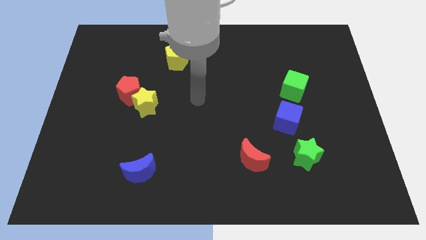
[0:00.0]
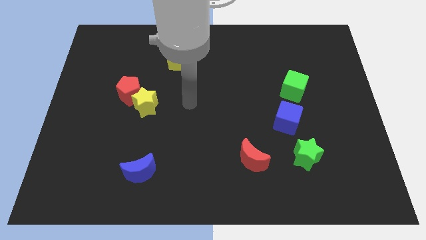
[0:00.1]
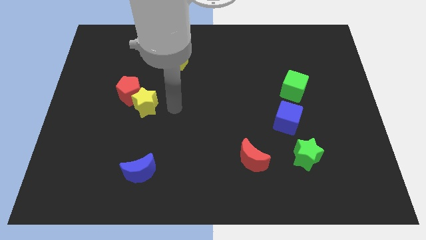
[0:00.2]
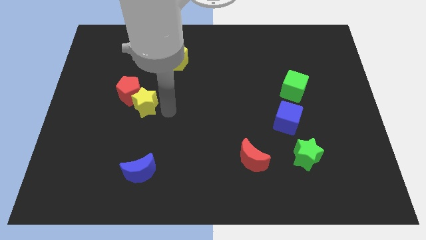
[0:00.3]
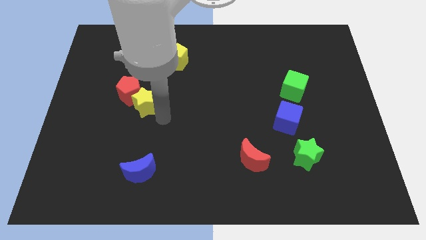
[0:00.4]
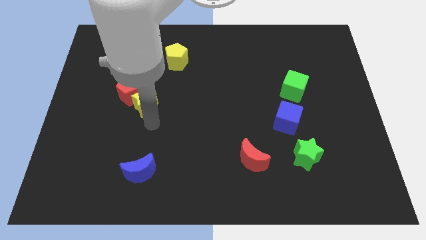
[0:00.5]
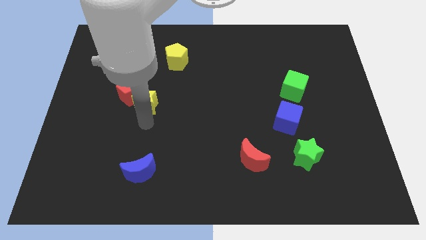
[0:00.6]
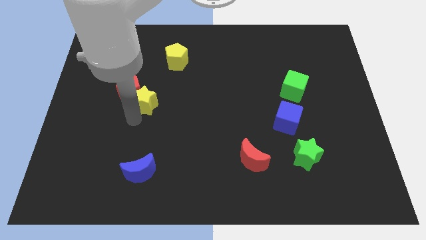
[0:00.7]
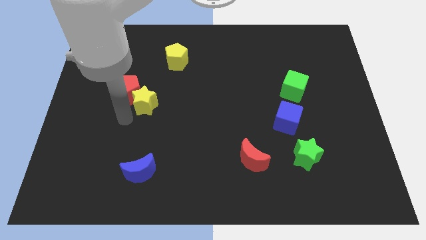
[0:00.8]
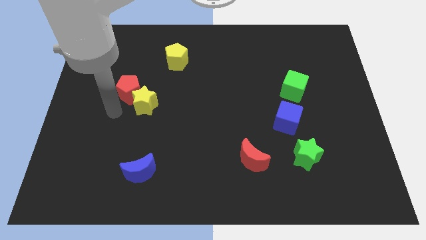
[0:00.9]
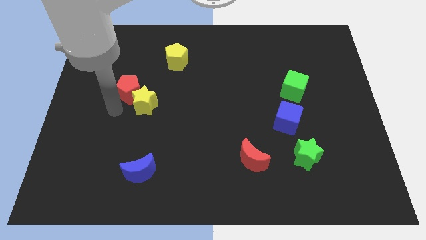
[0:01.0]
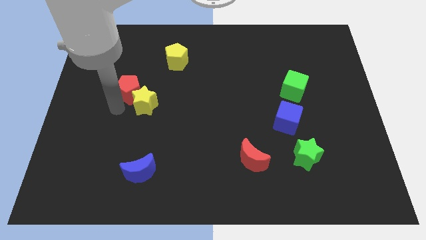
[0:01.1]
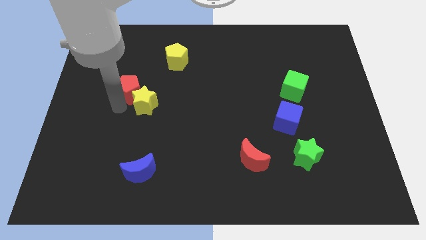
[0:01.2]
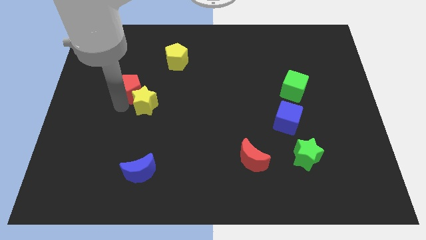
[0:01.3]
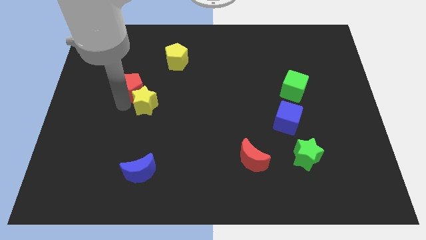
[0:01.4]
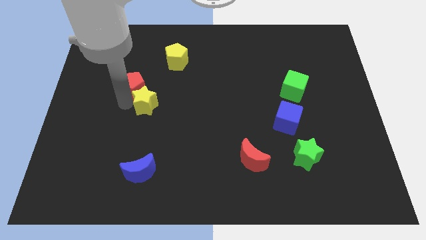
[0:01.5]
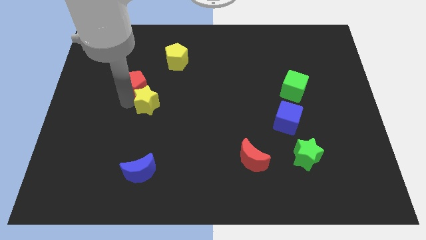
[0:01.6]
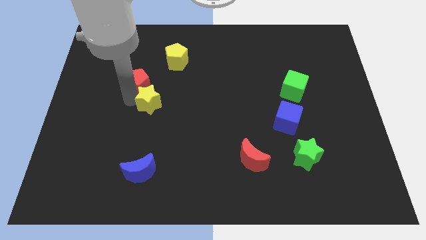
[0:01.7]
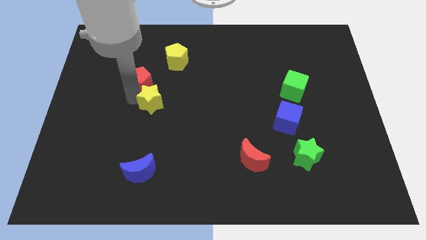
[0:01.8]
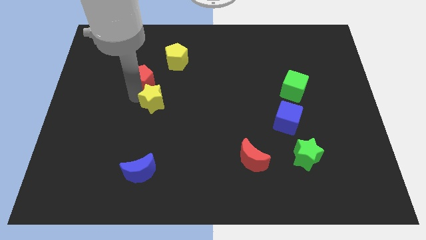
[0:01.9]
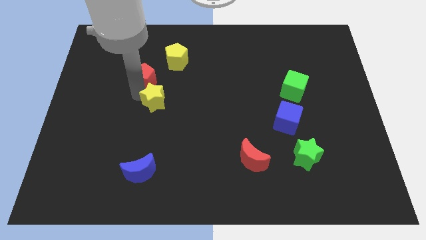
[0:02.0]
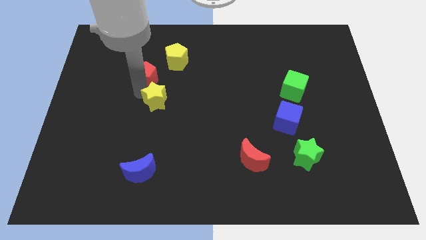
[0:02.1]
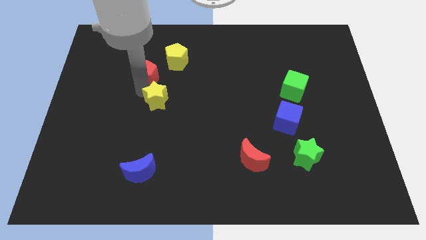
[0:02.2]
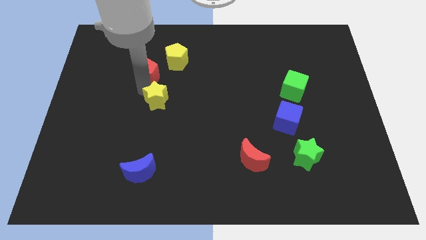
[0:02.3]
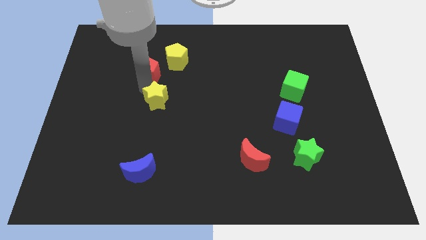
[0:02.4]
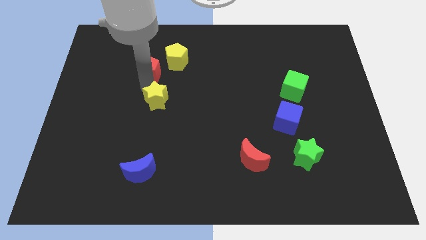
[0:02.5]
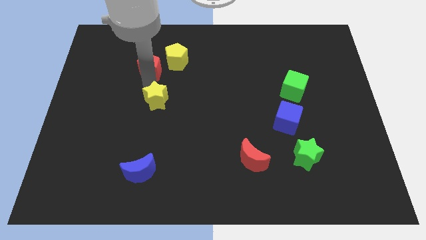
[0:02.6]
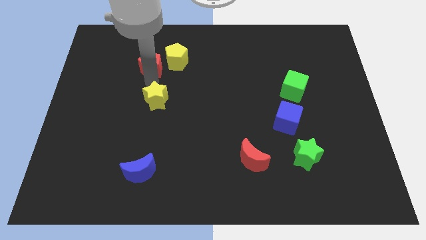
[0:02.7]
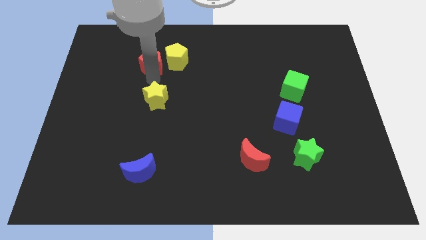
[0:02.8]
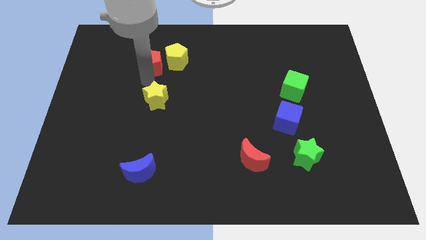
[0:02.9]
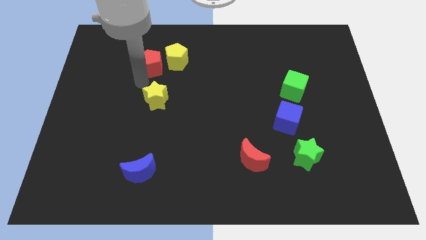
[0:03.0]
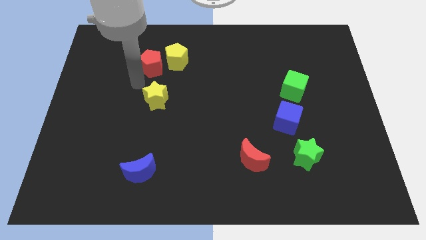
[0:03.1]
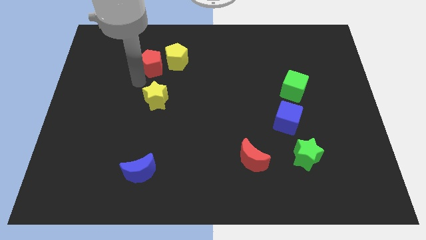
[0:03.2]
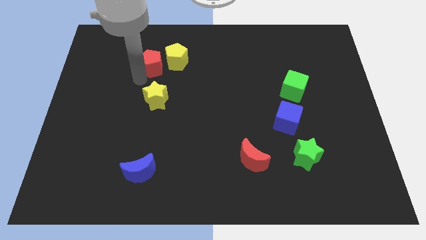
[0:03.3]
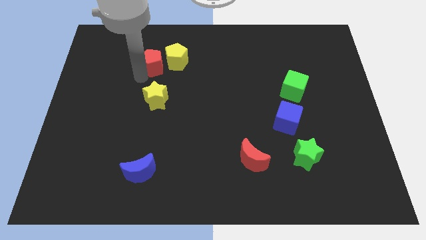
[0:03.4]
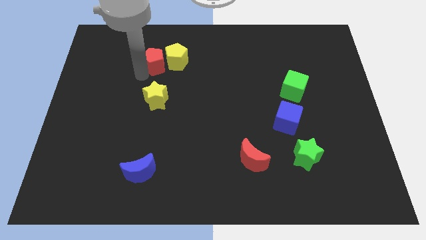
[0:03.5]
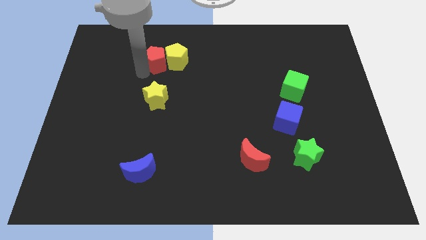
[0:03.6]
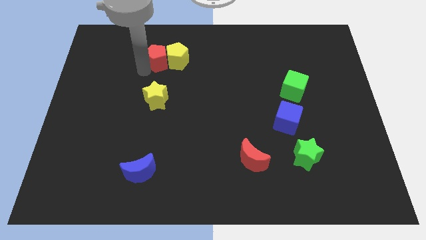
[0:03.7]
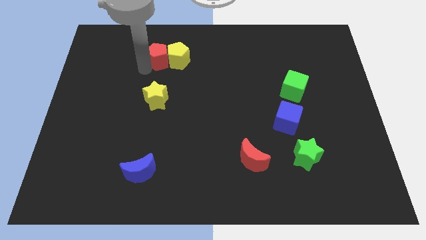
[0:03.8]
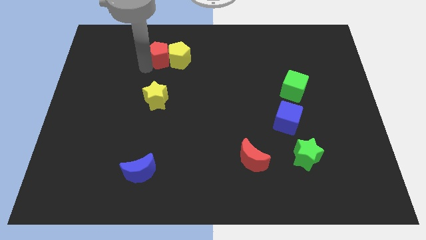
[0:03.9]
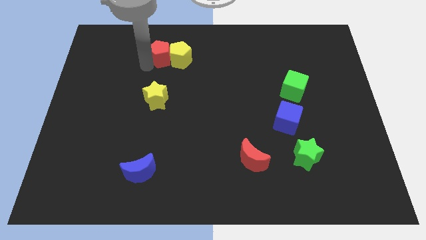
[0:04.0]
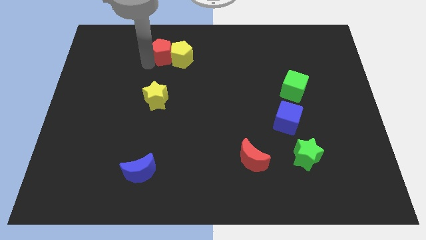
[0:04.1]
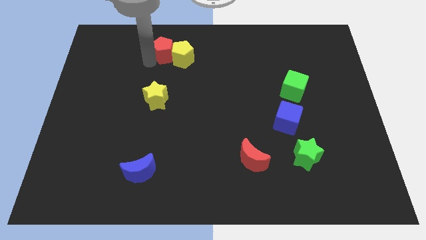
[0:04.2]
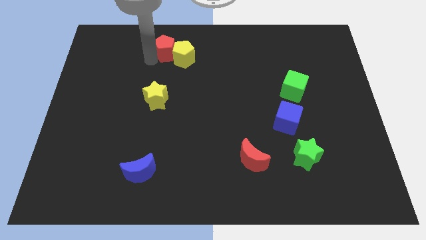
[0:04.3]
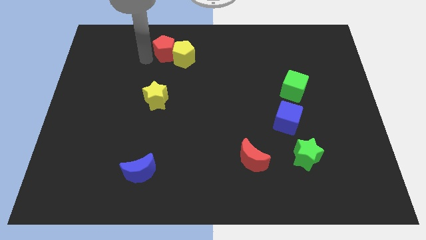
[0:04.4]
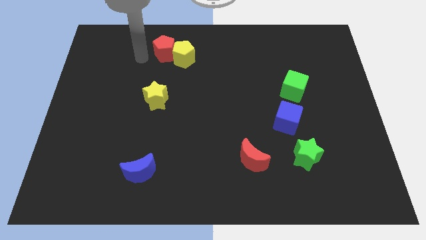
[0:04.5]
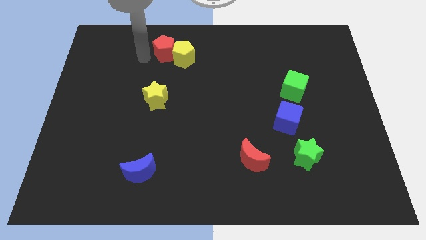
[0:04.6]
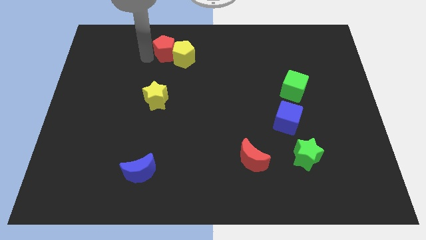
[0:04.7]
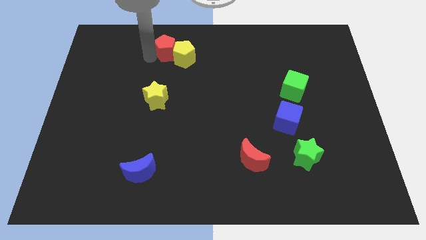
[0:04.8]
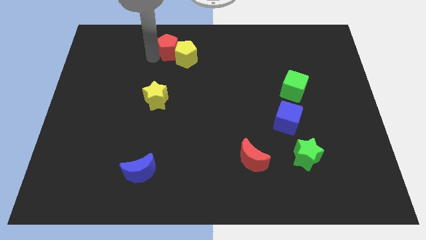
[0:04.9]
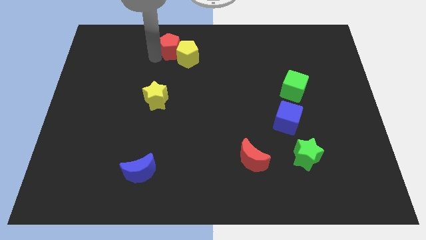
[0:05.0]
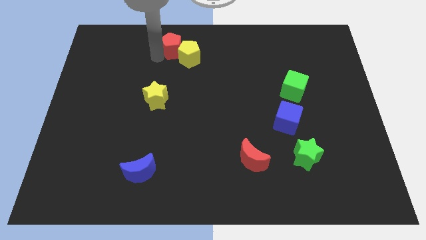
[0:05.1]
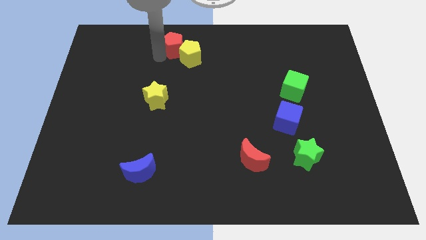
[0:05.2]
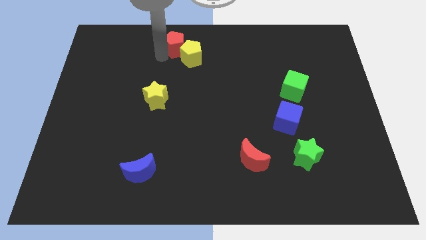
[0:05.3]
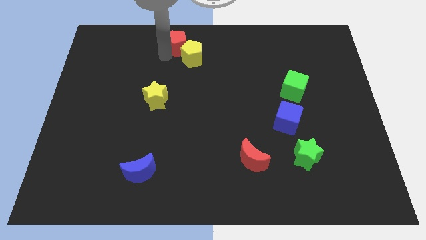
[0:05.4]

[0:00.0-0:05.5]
slide the red pentagon to the top

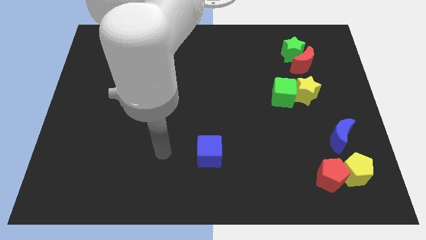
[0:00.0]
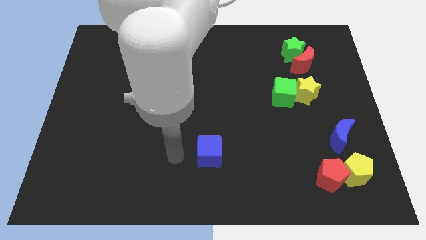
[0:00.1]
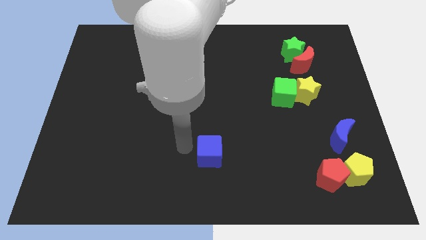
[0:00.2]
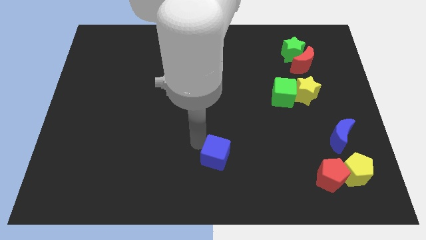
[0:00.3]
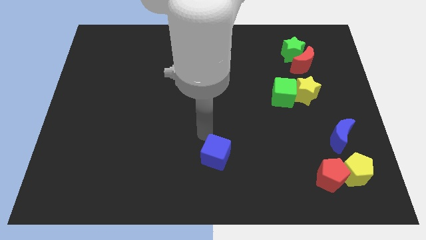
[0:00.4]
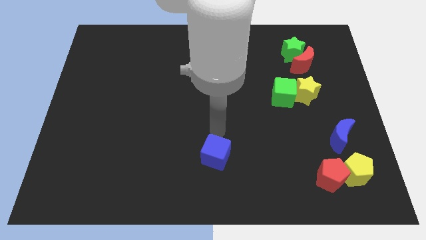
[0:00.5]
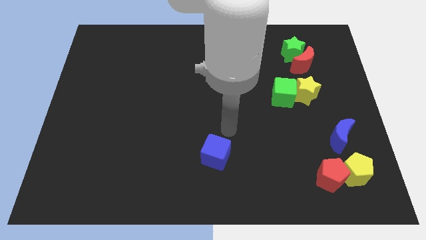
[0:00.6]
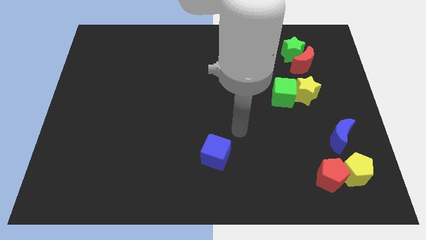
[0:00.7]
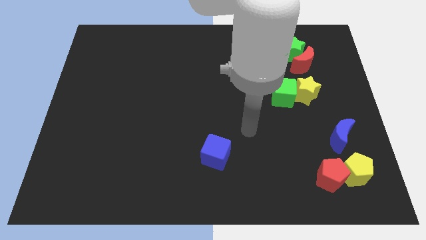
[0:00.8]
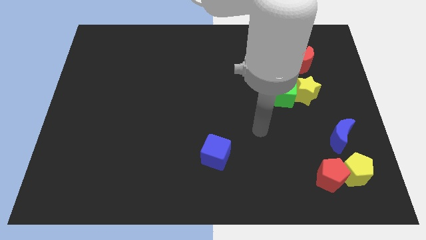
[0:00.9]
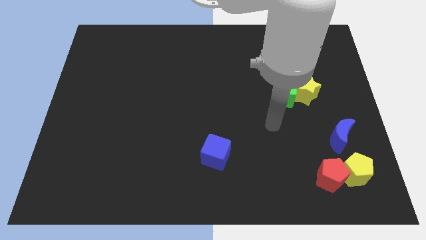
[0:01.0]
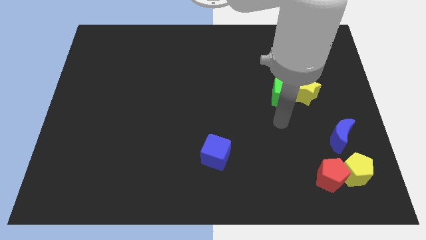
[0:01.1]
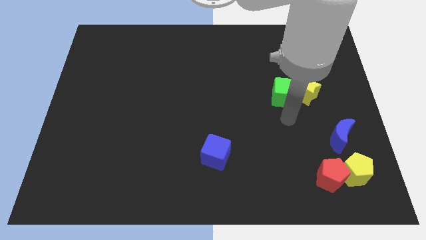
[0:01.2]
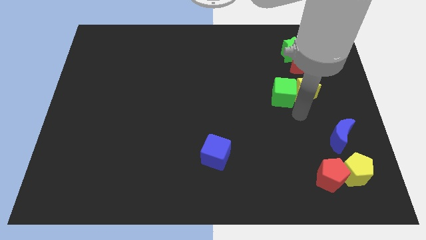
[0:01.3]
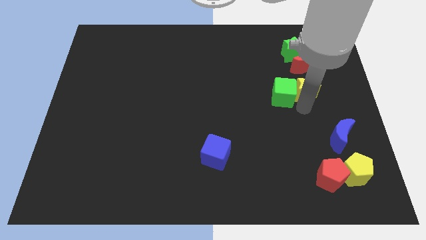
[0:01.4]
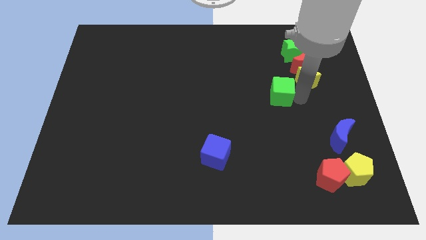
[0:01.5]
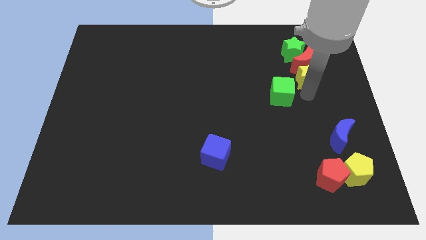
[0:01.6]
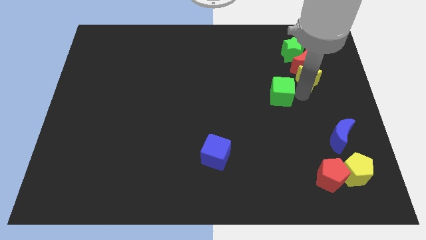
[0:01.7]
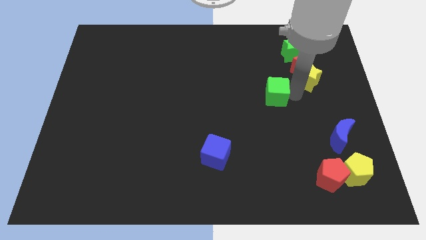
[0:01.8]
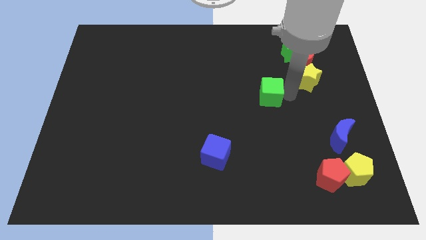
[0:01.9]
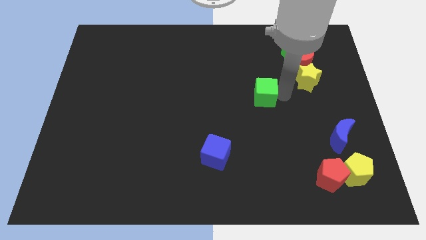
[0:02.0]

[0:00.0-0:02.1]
push the green cube to the center of the board

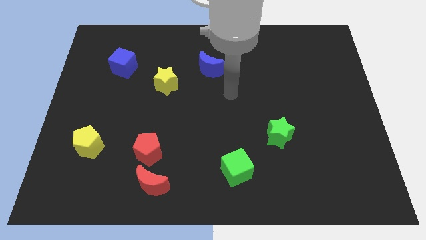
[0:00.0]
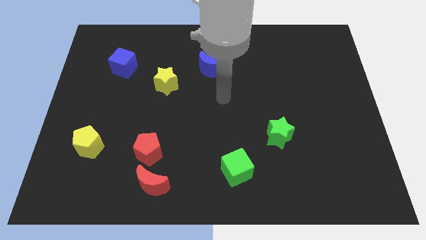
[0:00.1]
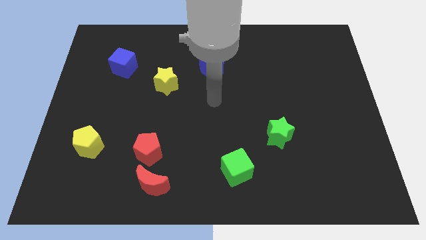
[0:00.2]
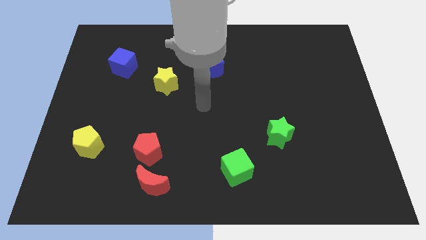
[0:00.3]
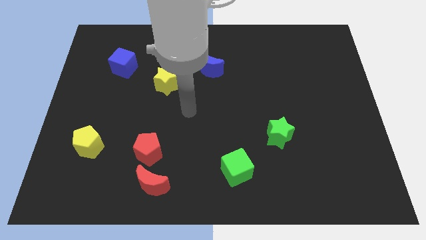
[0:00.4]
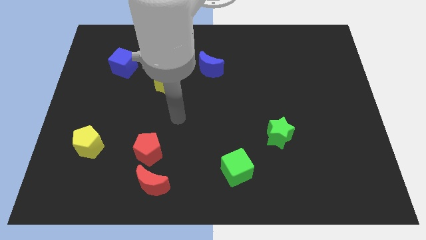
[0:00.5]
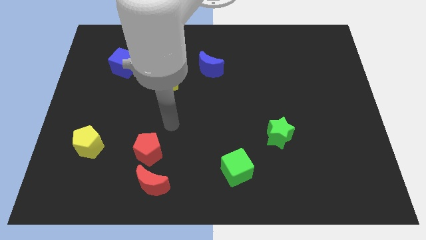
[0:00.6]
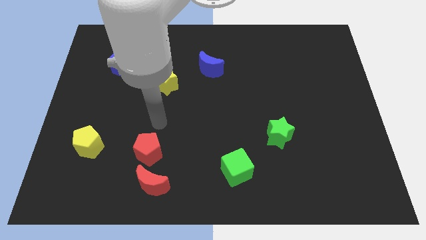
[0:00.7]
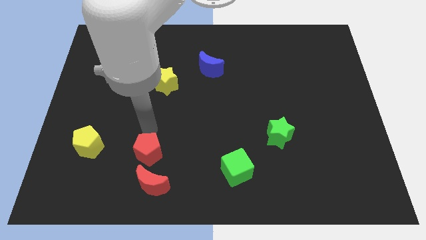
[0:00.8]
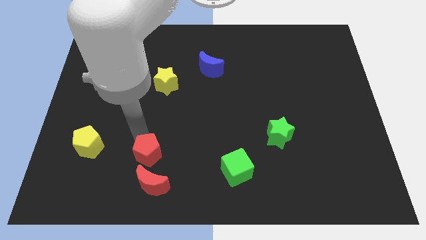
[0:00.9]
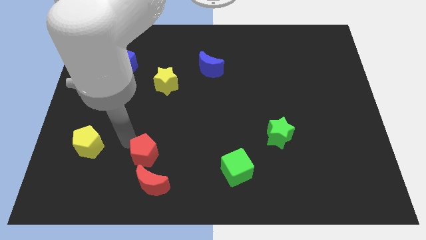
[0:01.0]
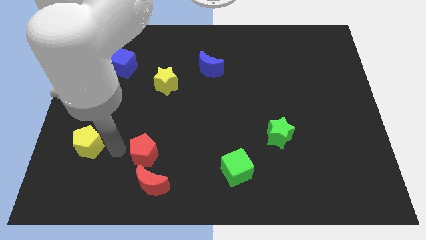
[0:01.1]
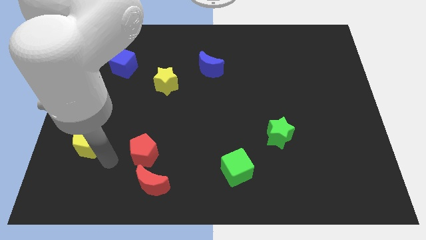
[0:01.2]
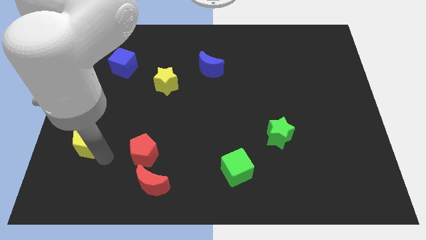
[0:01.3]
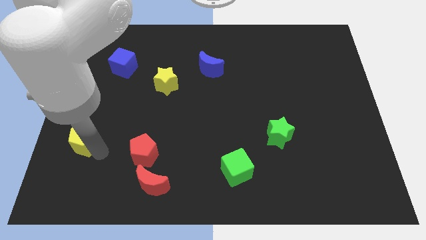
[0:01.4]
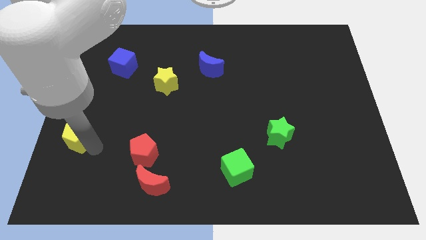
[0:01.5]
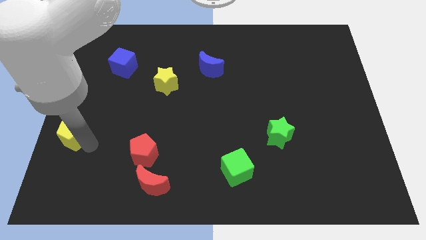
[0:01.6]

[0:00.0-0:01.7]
move the yellow pentagon to the center left
